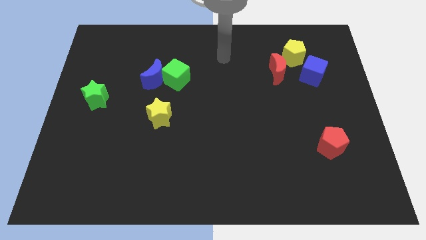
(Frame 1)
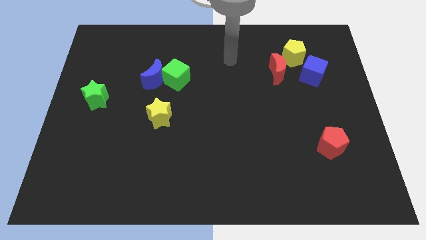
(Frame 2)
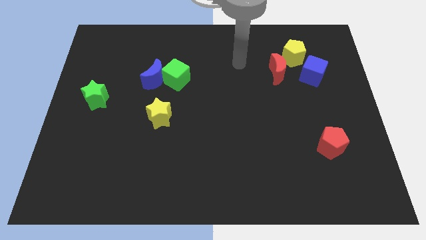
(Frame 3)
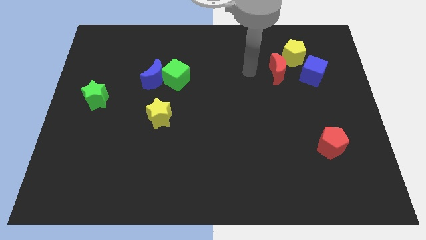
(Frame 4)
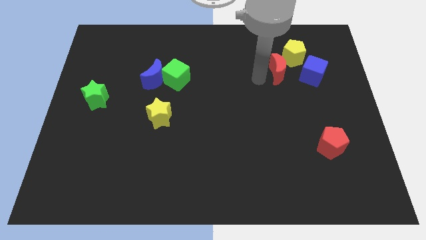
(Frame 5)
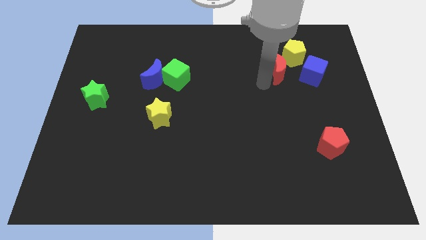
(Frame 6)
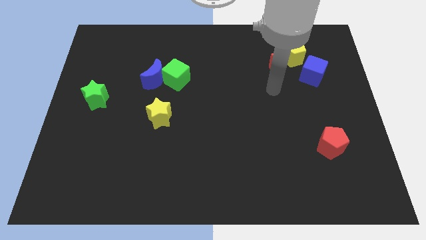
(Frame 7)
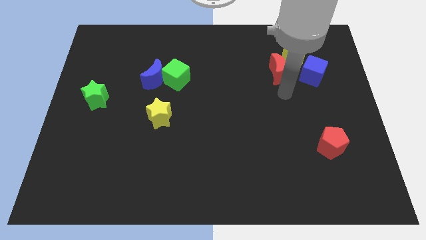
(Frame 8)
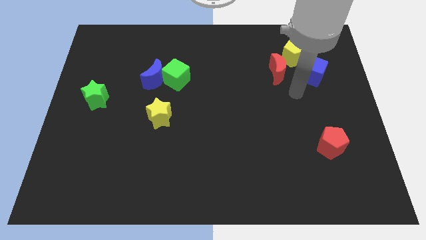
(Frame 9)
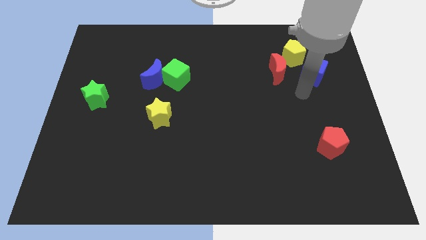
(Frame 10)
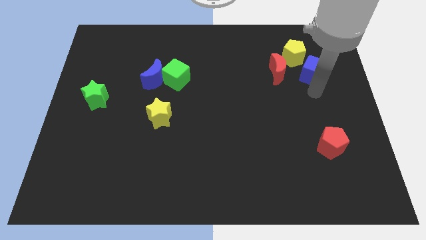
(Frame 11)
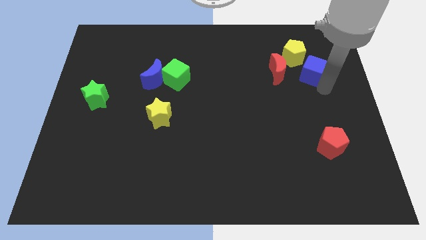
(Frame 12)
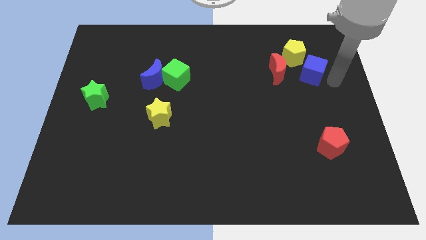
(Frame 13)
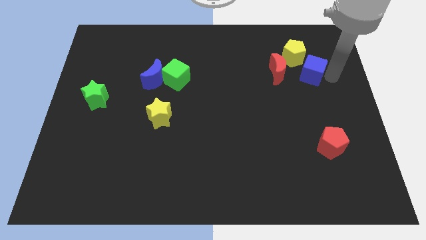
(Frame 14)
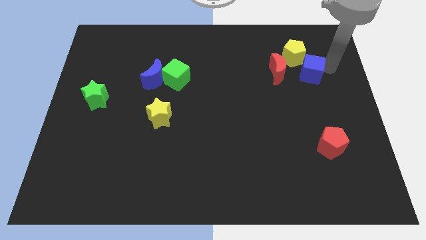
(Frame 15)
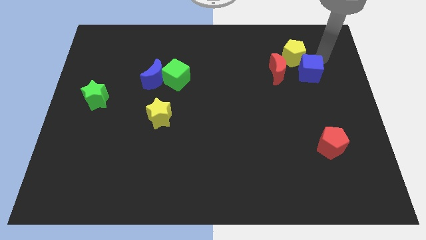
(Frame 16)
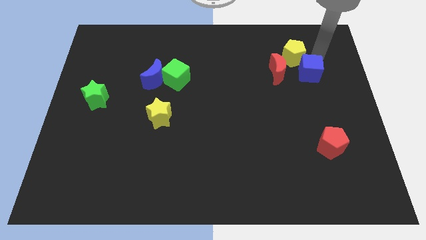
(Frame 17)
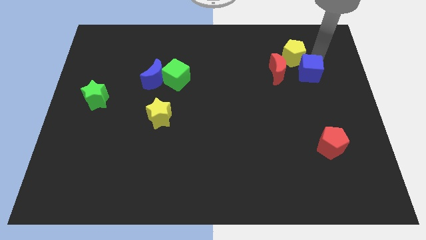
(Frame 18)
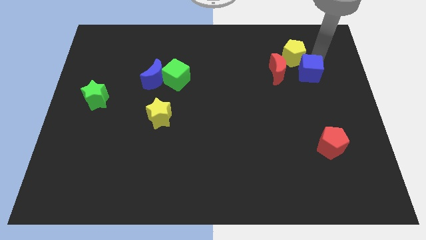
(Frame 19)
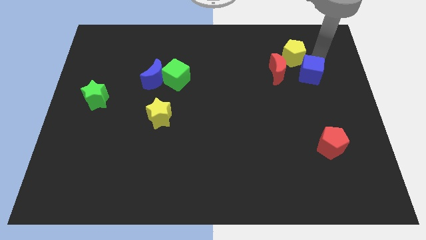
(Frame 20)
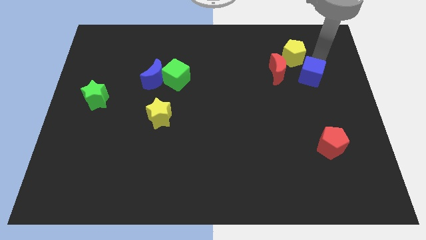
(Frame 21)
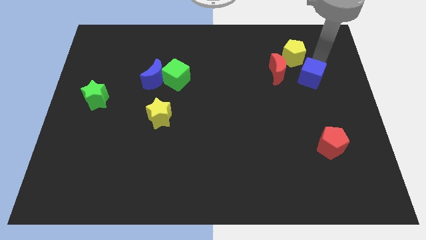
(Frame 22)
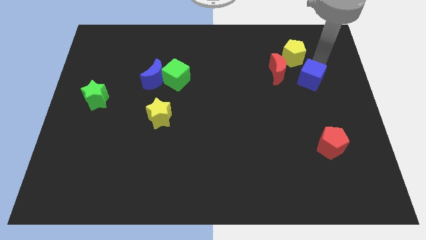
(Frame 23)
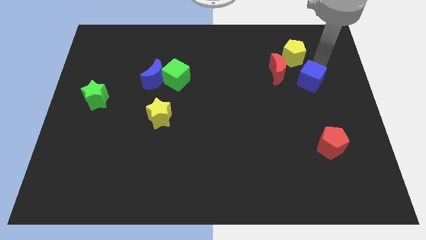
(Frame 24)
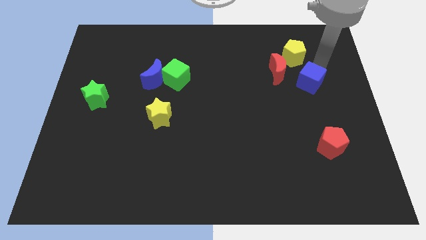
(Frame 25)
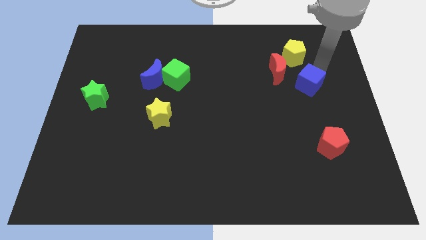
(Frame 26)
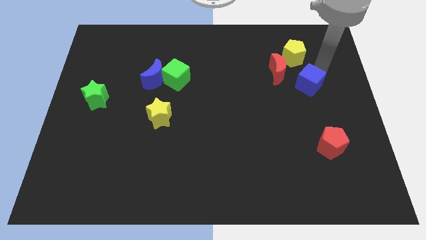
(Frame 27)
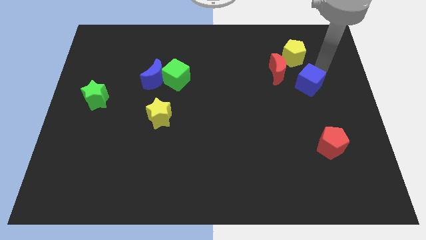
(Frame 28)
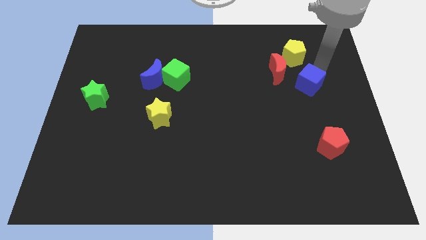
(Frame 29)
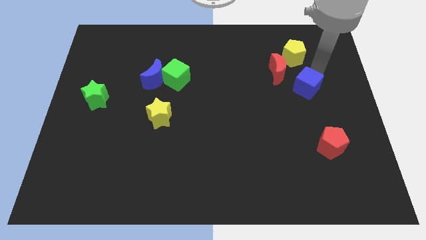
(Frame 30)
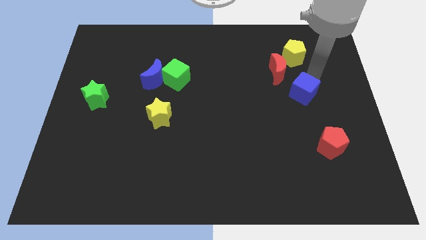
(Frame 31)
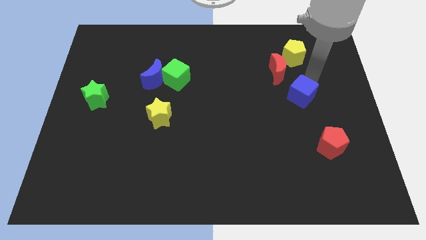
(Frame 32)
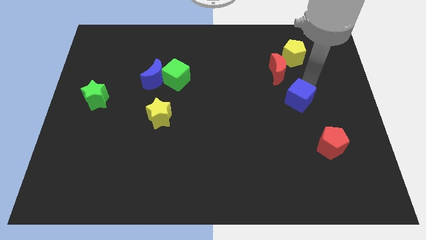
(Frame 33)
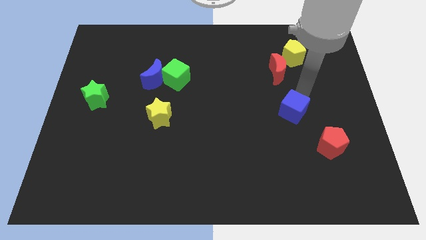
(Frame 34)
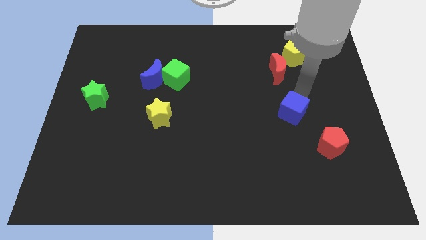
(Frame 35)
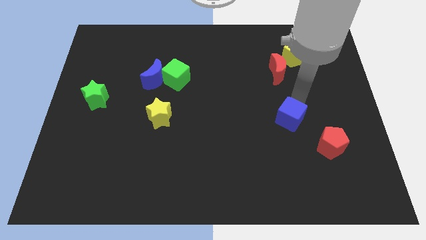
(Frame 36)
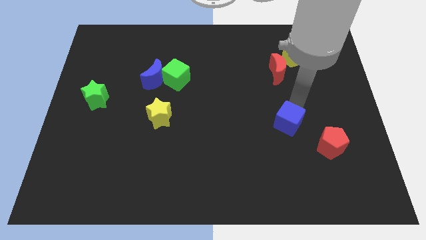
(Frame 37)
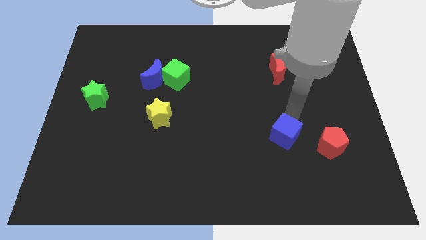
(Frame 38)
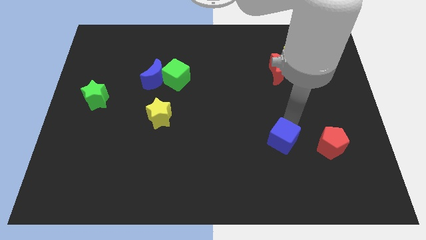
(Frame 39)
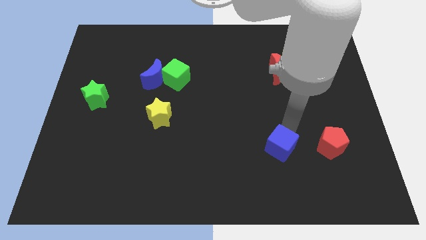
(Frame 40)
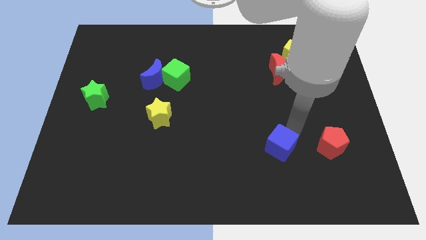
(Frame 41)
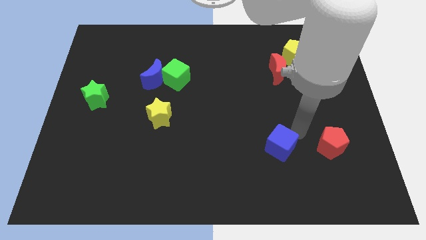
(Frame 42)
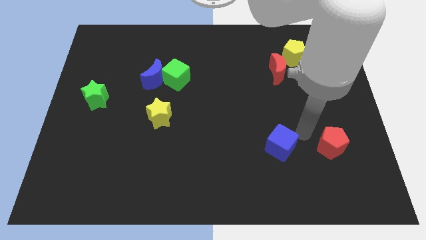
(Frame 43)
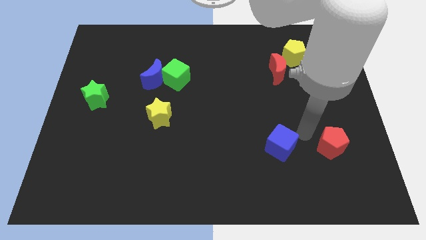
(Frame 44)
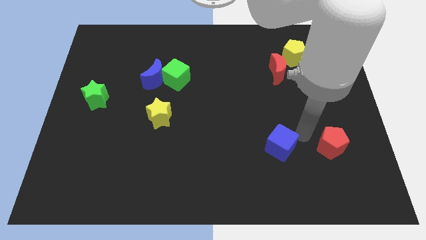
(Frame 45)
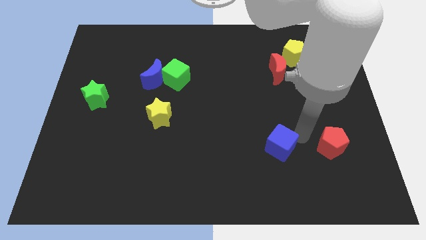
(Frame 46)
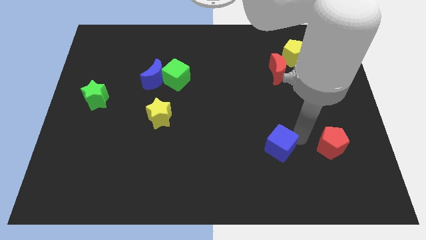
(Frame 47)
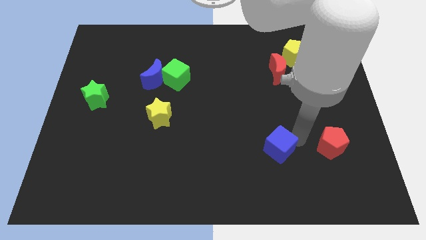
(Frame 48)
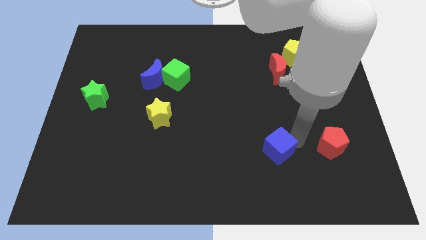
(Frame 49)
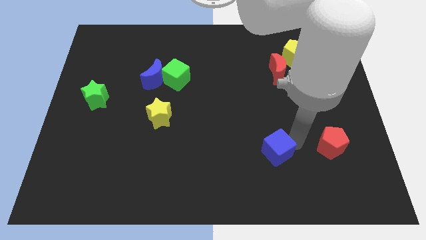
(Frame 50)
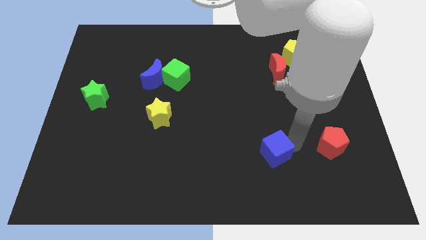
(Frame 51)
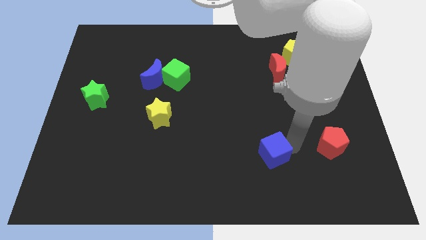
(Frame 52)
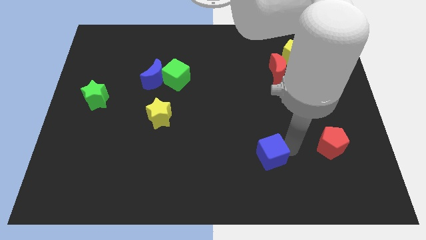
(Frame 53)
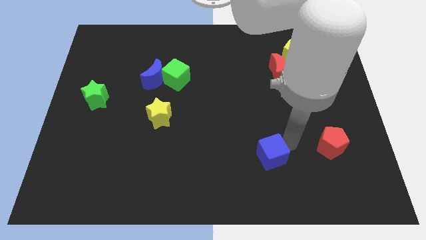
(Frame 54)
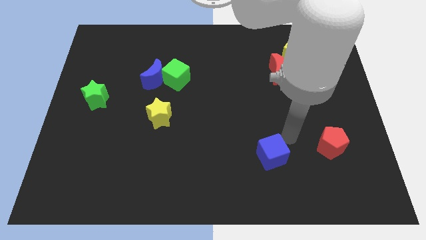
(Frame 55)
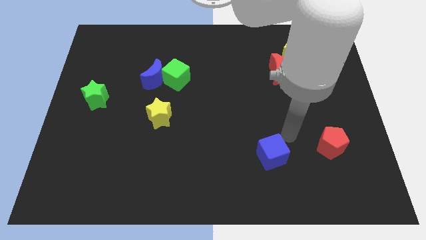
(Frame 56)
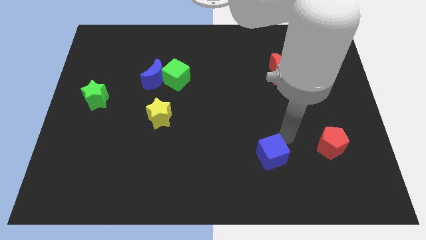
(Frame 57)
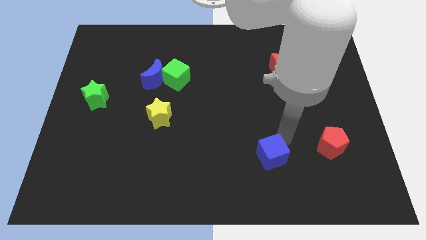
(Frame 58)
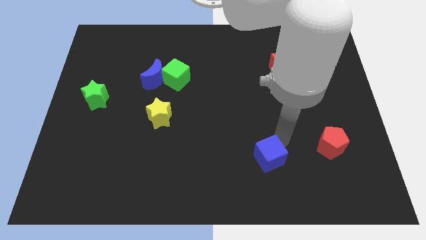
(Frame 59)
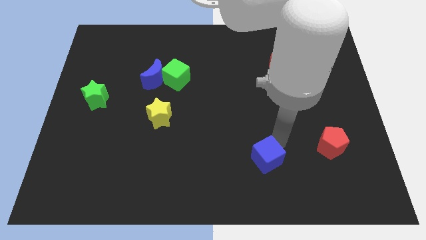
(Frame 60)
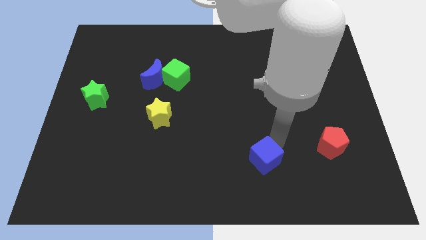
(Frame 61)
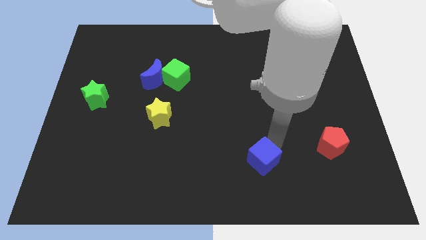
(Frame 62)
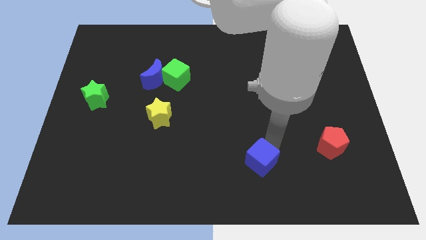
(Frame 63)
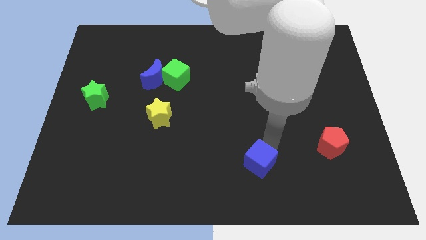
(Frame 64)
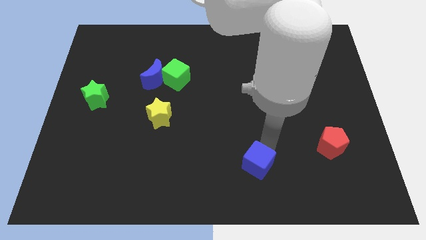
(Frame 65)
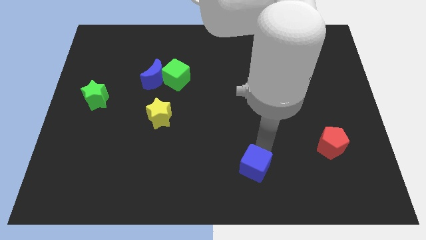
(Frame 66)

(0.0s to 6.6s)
move the blue cube to the bottom
